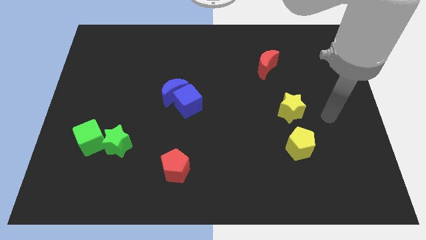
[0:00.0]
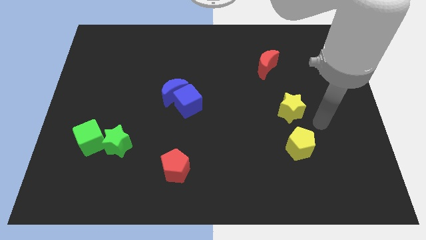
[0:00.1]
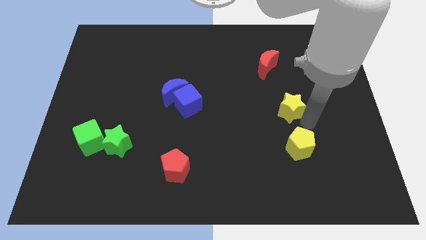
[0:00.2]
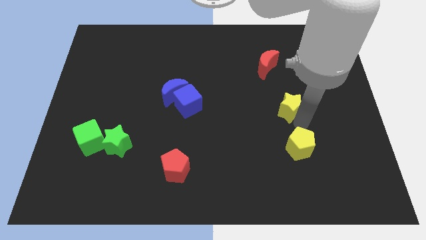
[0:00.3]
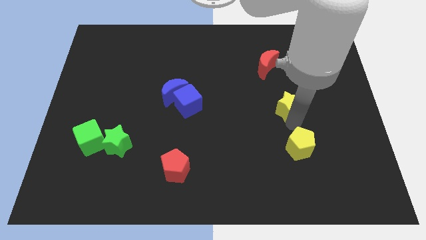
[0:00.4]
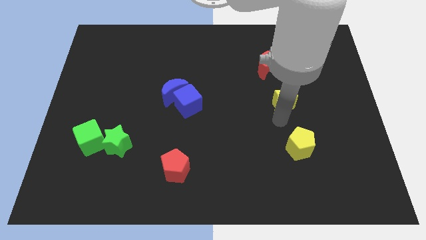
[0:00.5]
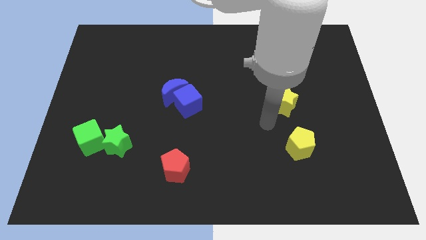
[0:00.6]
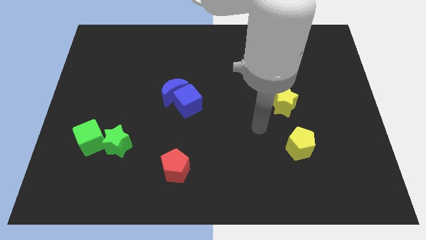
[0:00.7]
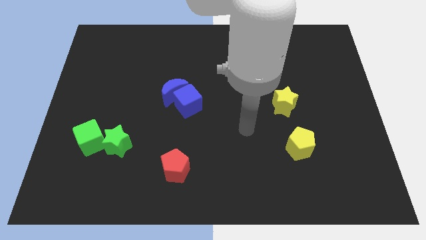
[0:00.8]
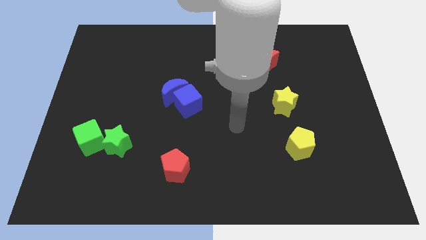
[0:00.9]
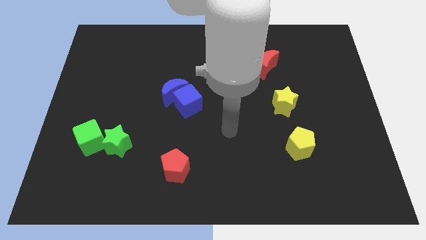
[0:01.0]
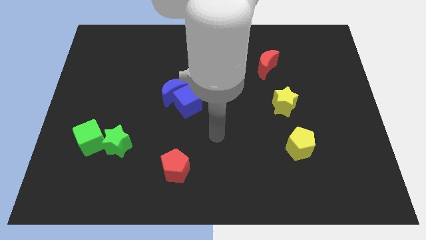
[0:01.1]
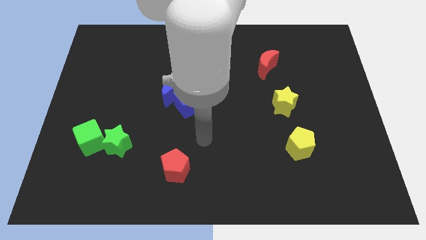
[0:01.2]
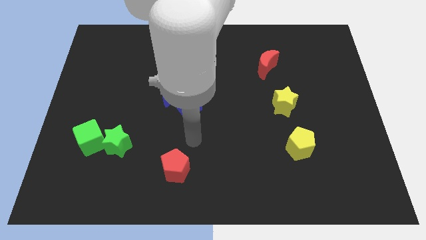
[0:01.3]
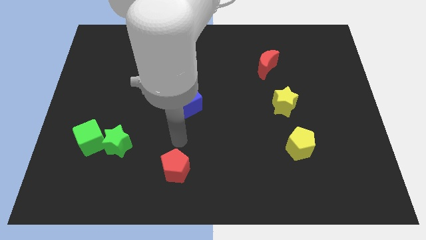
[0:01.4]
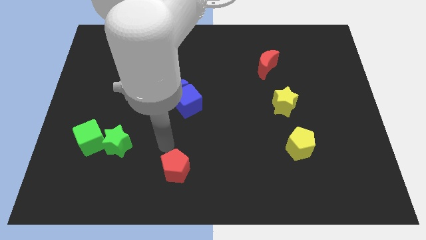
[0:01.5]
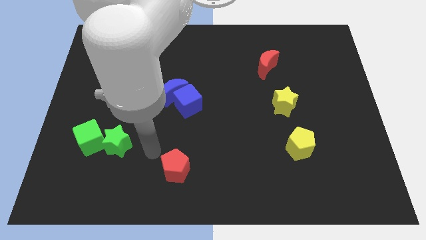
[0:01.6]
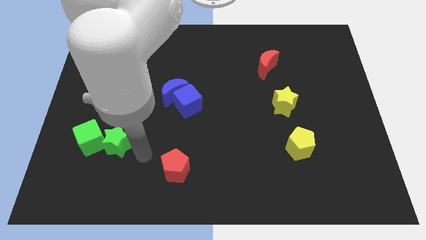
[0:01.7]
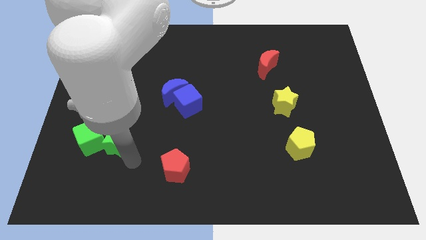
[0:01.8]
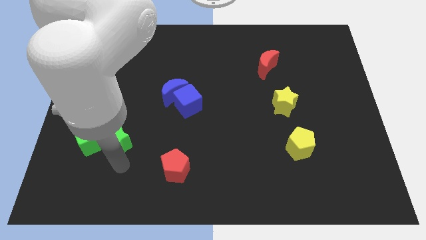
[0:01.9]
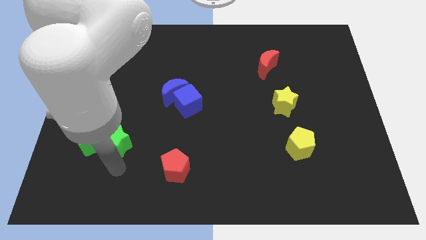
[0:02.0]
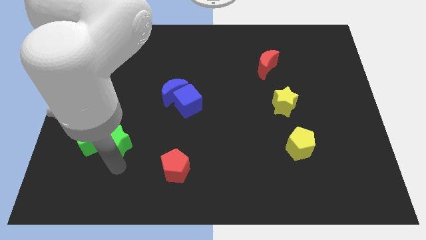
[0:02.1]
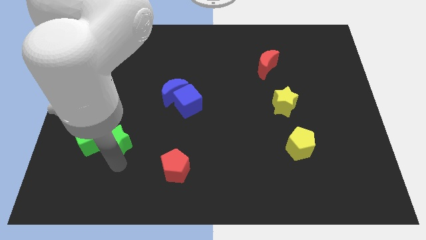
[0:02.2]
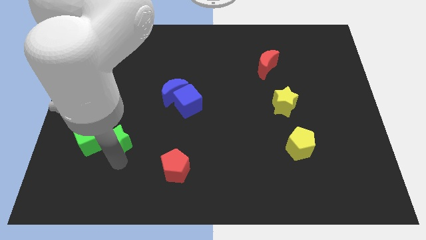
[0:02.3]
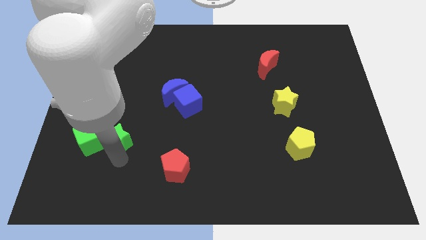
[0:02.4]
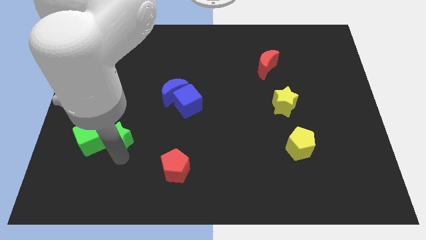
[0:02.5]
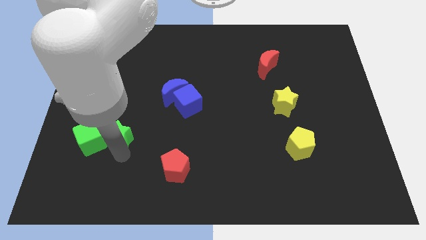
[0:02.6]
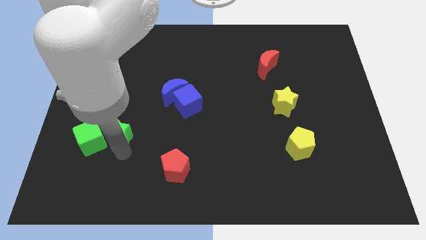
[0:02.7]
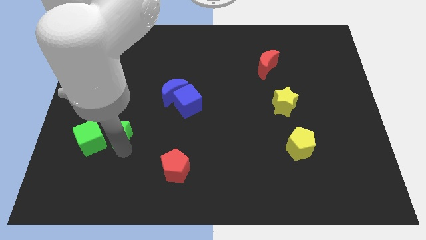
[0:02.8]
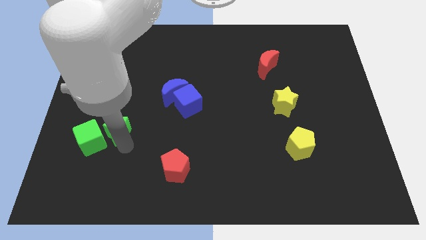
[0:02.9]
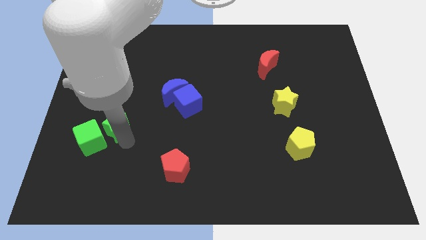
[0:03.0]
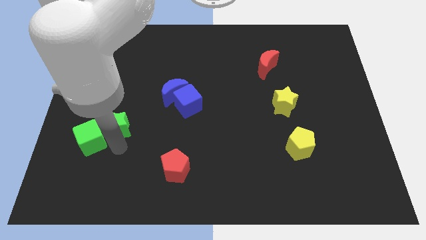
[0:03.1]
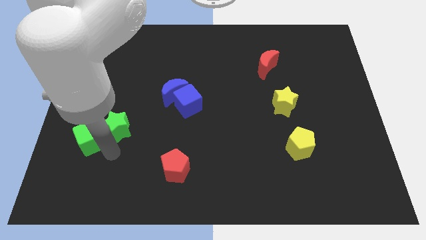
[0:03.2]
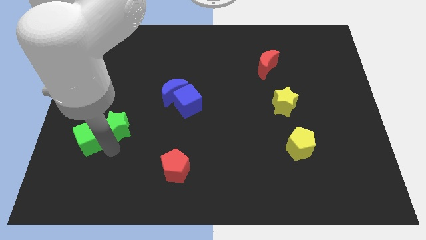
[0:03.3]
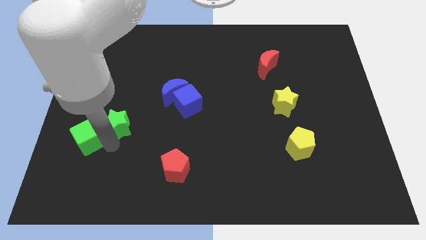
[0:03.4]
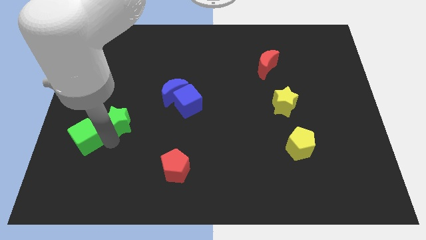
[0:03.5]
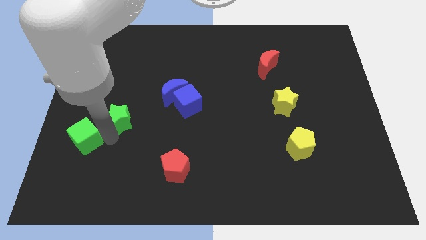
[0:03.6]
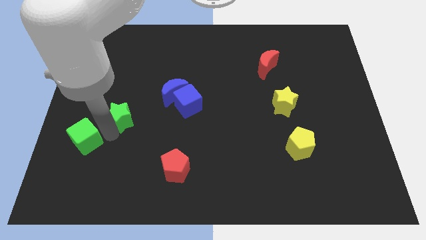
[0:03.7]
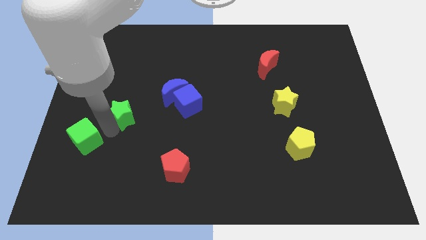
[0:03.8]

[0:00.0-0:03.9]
slightly push the green star up

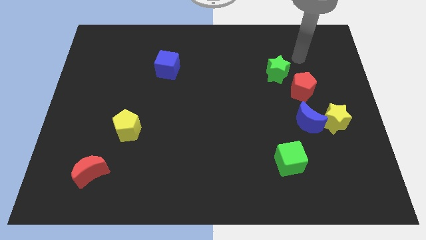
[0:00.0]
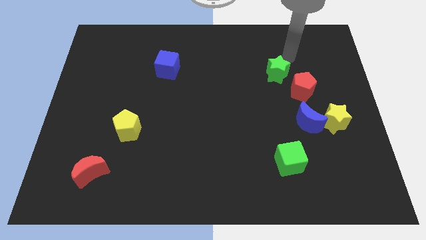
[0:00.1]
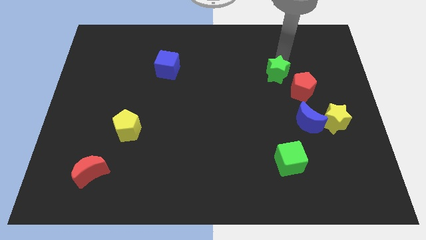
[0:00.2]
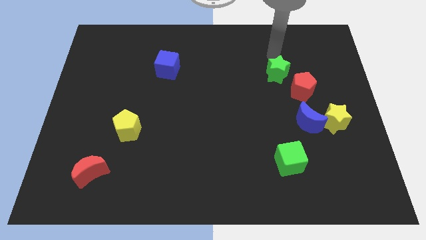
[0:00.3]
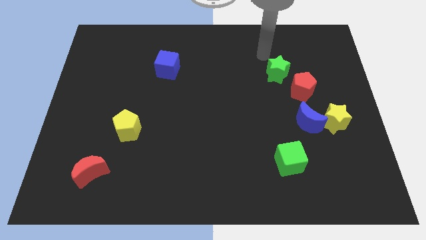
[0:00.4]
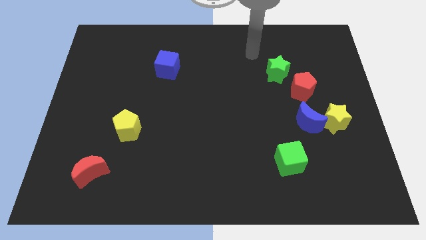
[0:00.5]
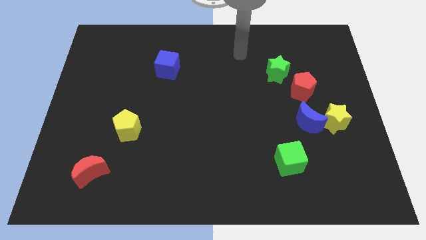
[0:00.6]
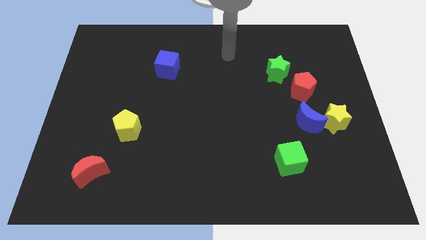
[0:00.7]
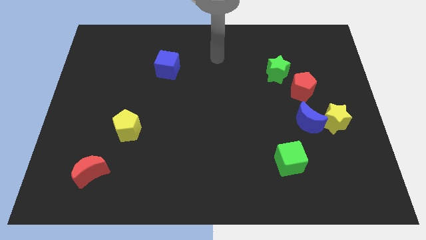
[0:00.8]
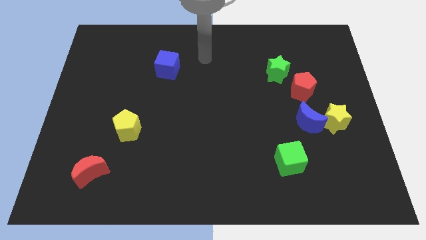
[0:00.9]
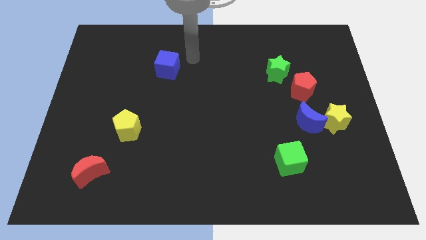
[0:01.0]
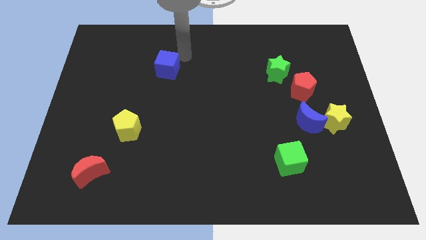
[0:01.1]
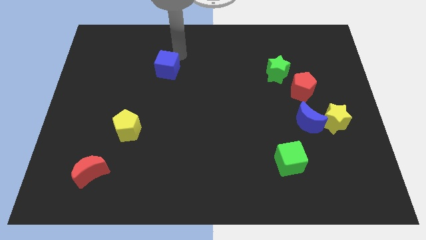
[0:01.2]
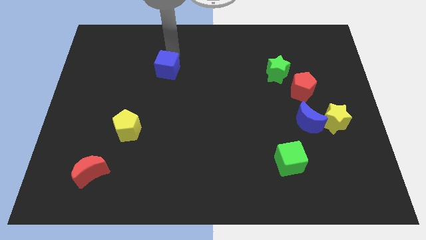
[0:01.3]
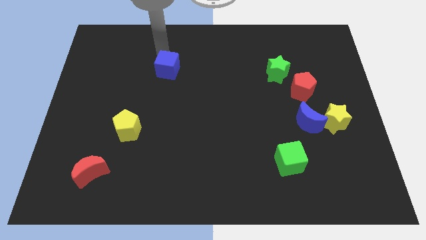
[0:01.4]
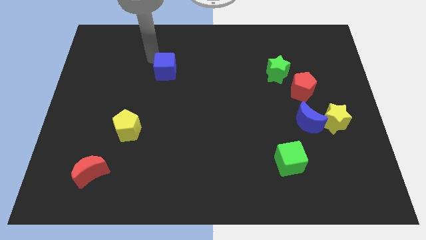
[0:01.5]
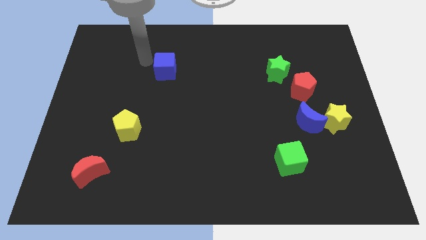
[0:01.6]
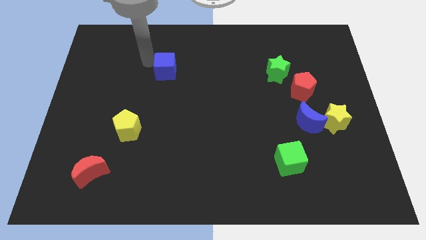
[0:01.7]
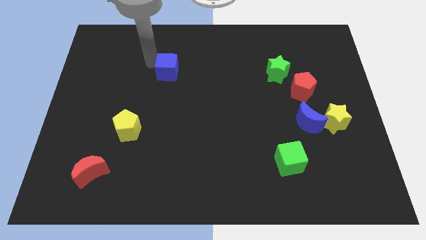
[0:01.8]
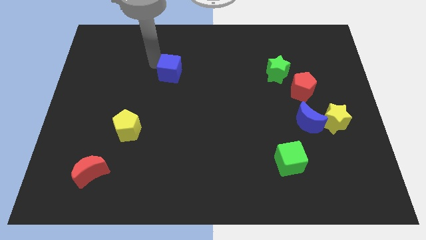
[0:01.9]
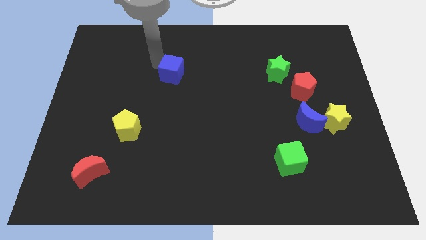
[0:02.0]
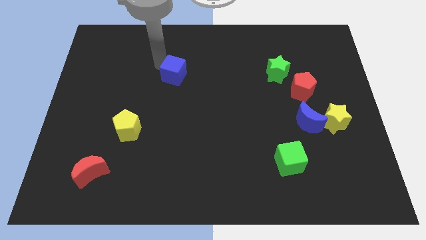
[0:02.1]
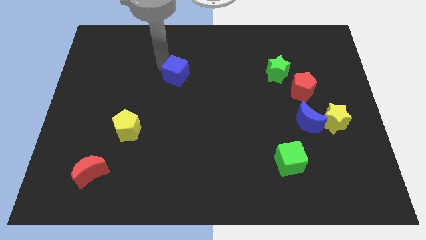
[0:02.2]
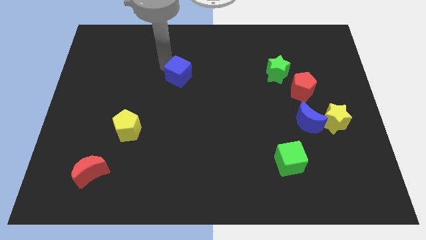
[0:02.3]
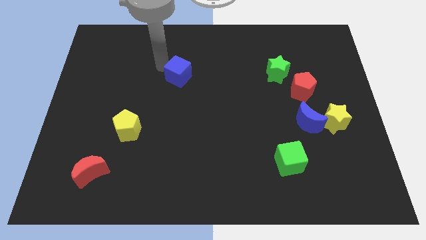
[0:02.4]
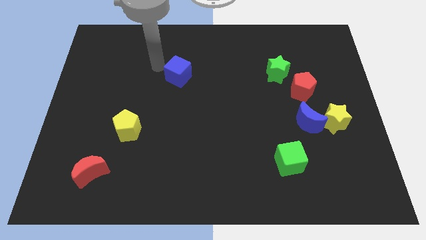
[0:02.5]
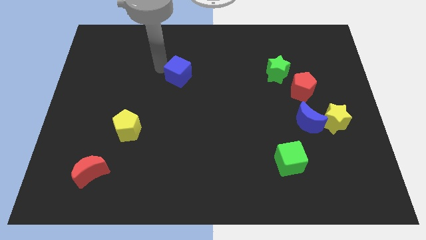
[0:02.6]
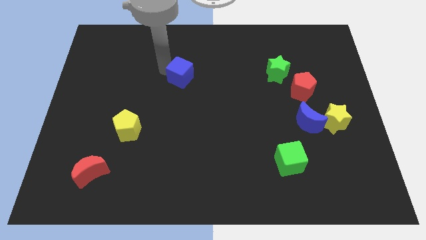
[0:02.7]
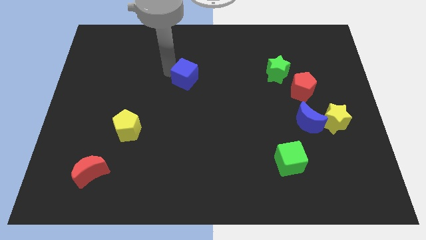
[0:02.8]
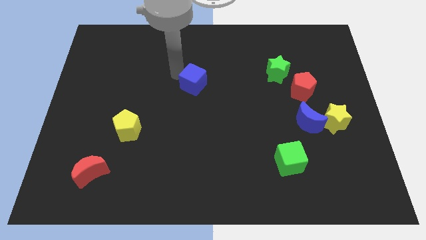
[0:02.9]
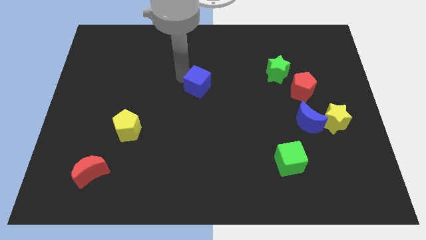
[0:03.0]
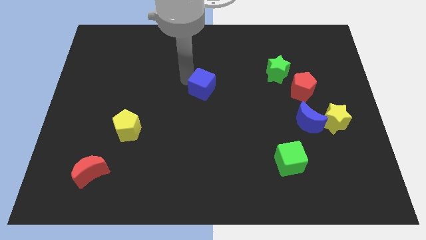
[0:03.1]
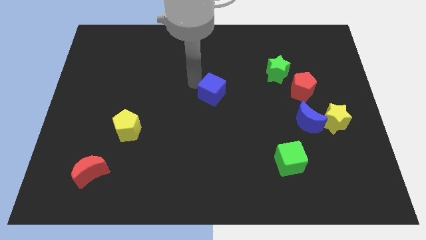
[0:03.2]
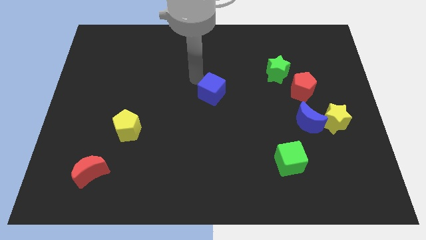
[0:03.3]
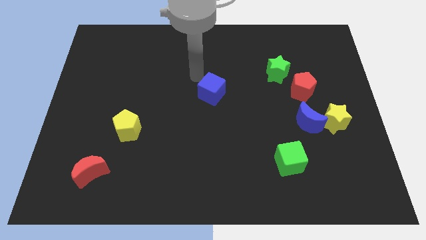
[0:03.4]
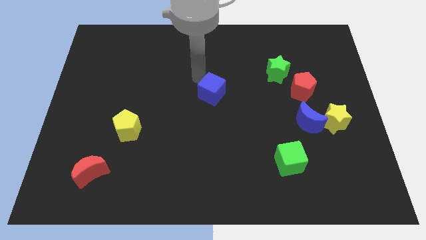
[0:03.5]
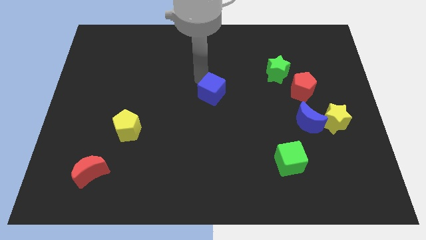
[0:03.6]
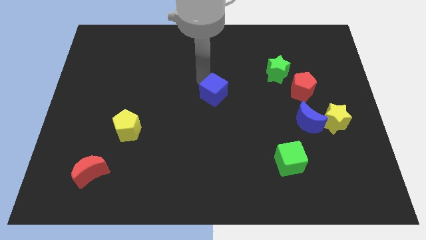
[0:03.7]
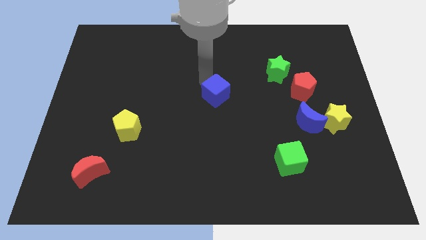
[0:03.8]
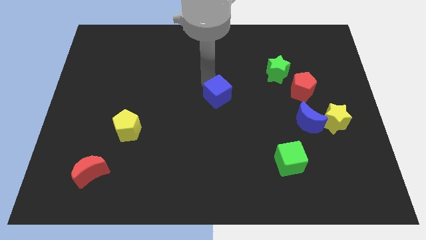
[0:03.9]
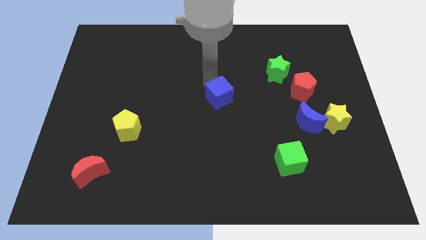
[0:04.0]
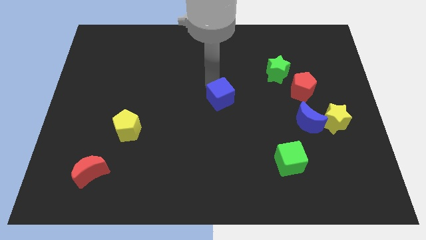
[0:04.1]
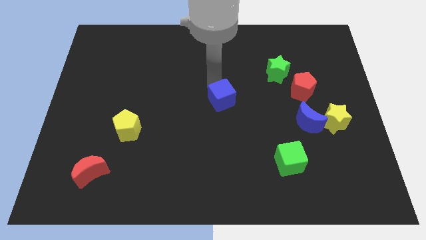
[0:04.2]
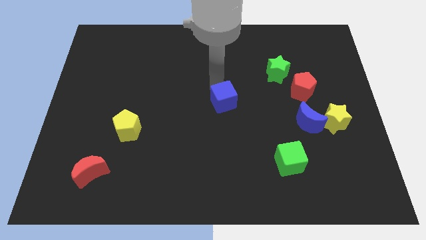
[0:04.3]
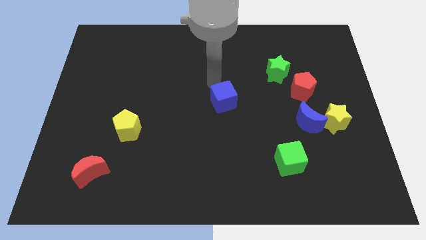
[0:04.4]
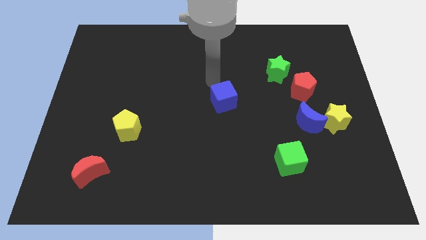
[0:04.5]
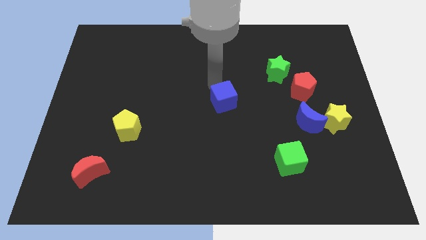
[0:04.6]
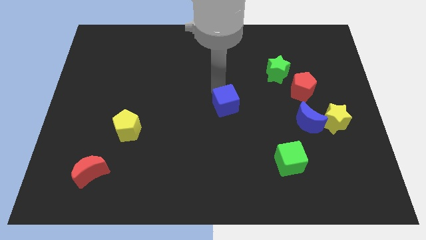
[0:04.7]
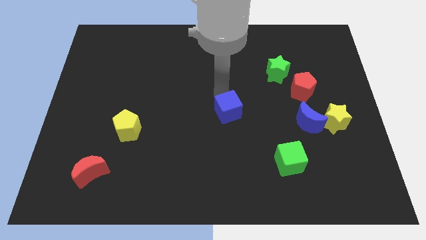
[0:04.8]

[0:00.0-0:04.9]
move the blue cube down and to the right
